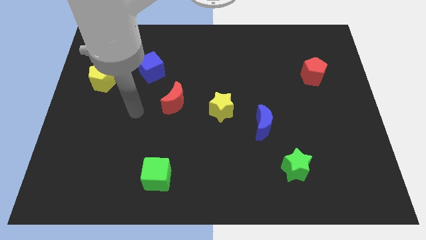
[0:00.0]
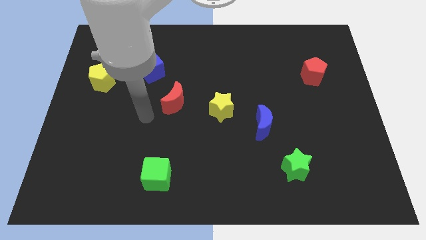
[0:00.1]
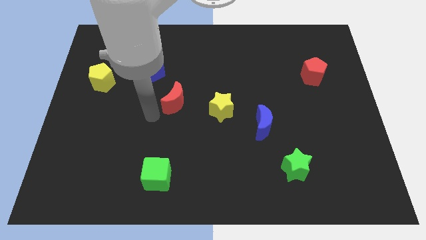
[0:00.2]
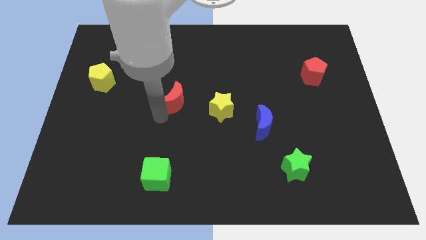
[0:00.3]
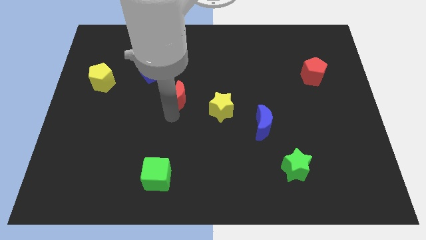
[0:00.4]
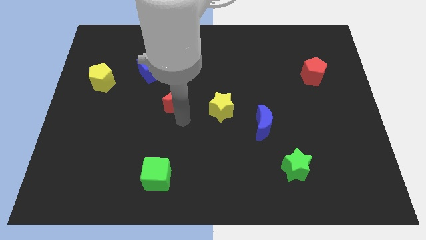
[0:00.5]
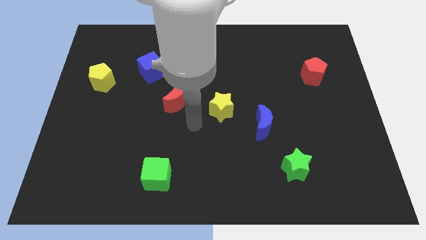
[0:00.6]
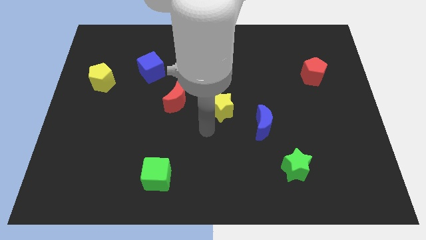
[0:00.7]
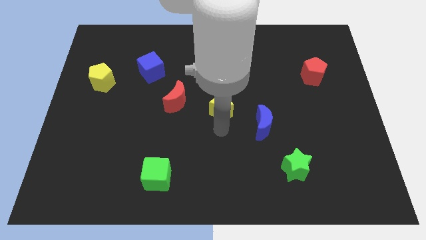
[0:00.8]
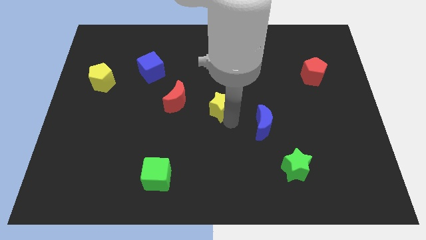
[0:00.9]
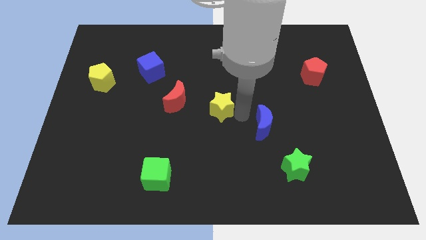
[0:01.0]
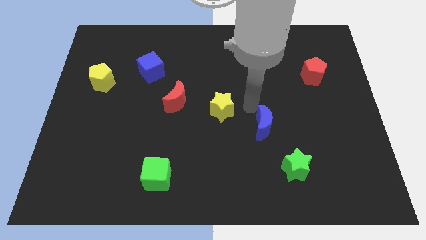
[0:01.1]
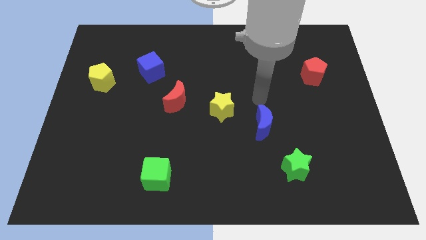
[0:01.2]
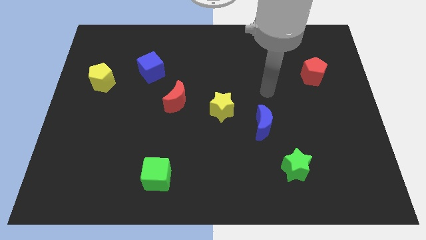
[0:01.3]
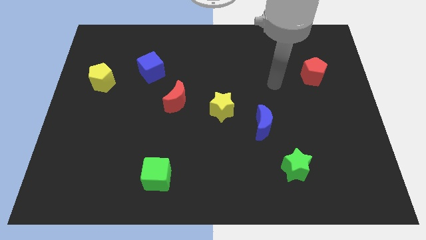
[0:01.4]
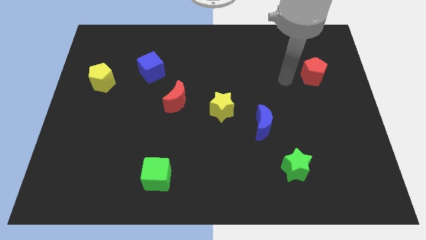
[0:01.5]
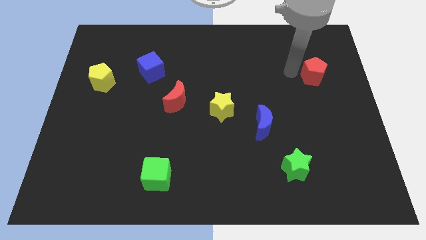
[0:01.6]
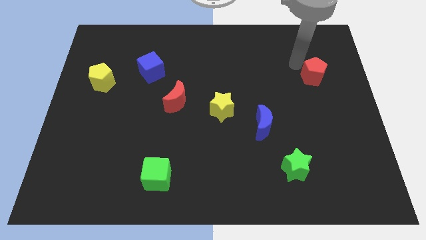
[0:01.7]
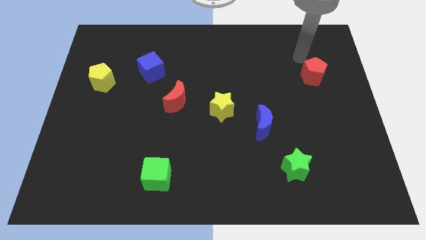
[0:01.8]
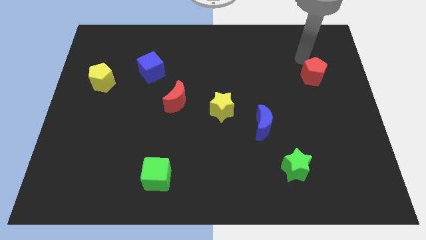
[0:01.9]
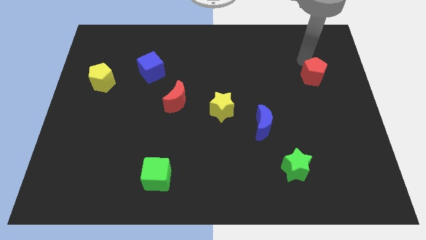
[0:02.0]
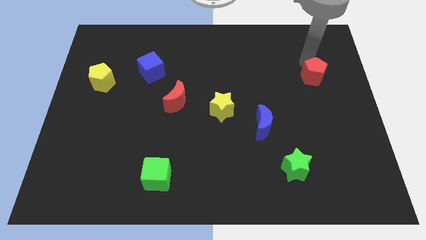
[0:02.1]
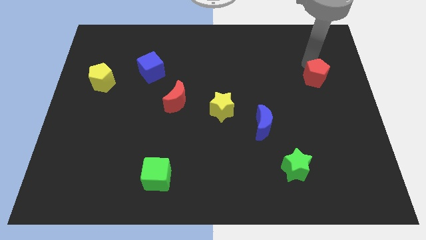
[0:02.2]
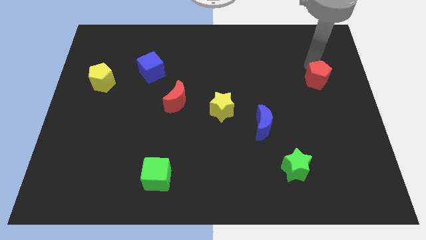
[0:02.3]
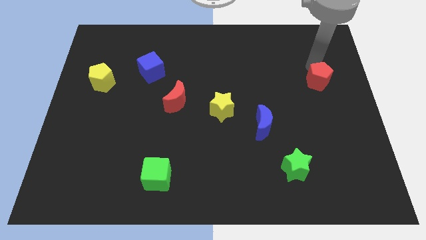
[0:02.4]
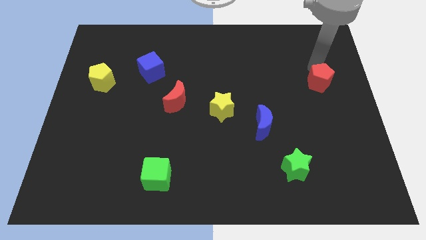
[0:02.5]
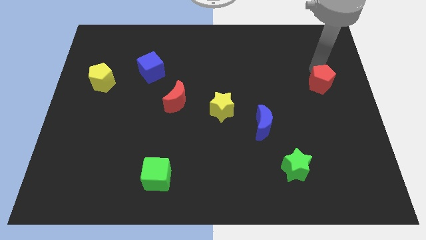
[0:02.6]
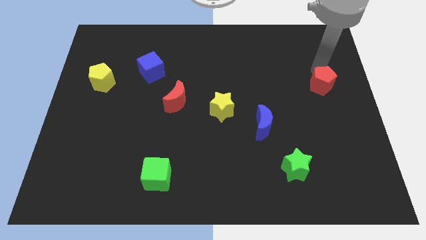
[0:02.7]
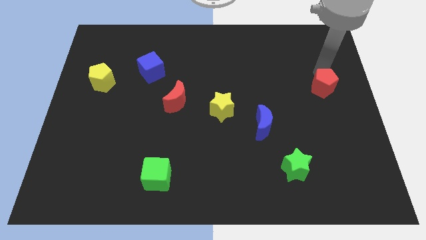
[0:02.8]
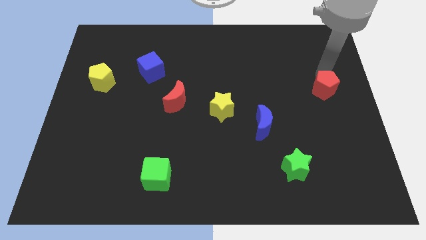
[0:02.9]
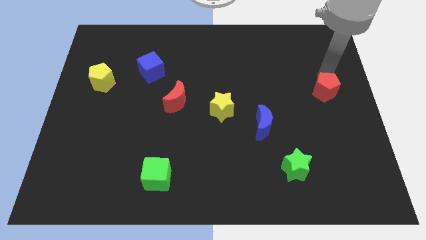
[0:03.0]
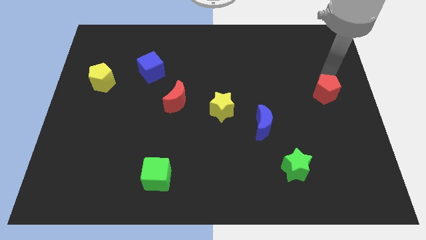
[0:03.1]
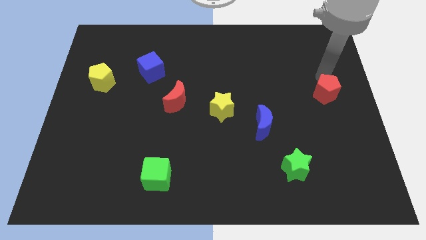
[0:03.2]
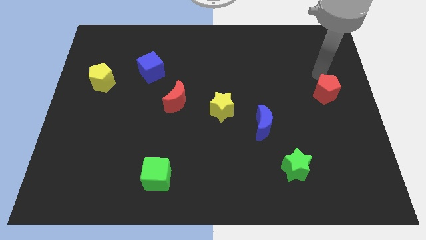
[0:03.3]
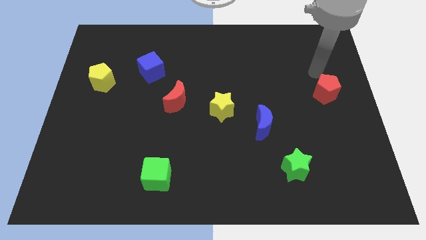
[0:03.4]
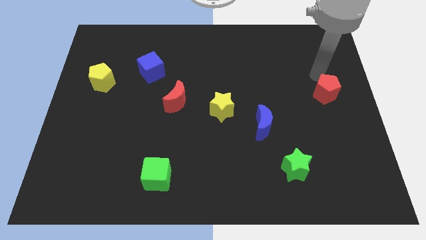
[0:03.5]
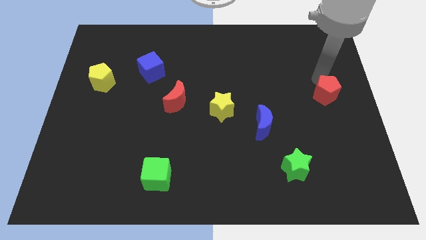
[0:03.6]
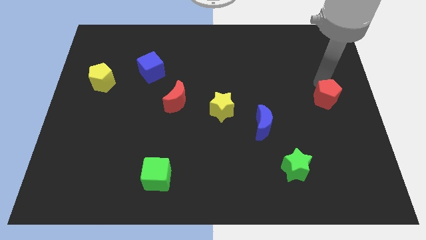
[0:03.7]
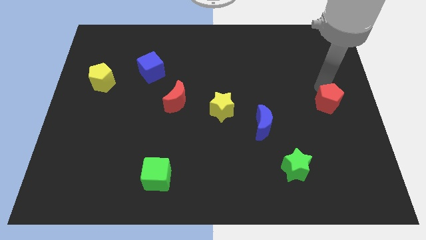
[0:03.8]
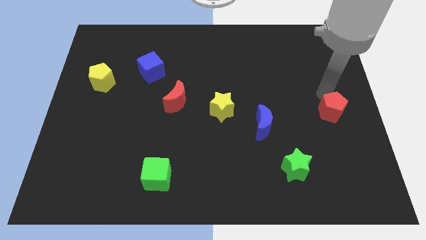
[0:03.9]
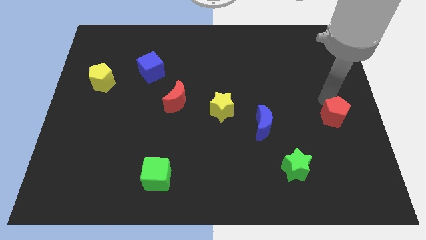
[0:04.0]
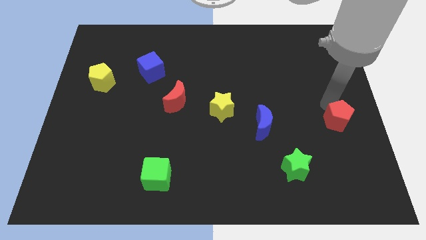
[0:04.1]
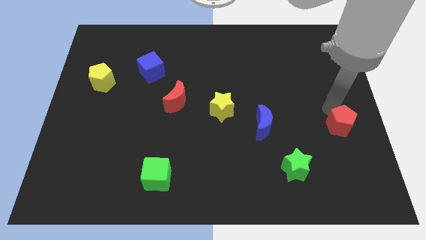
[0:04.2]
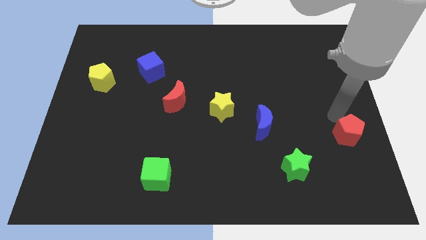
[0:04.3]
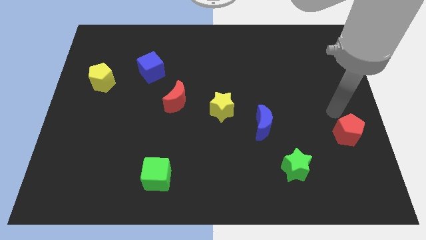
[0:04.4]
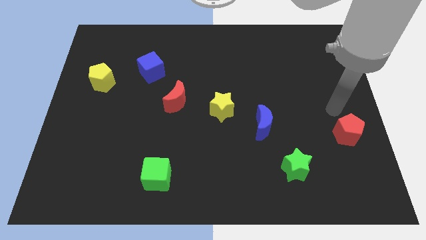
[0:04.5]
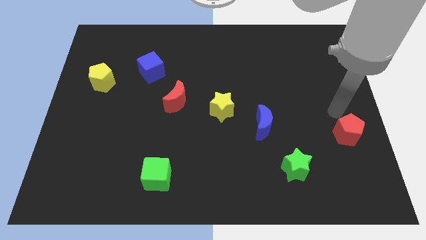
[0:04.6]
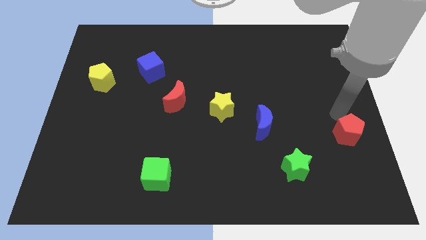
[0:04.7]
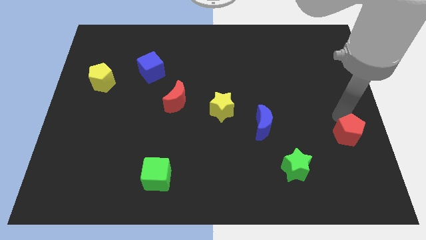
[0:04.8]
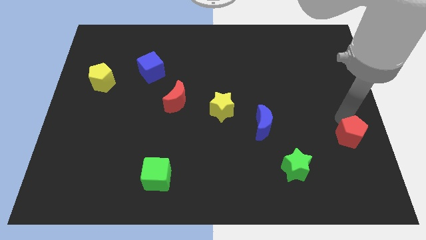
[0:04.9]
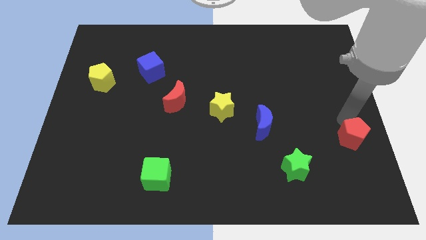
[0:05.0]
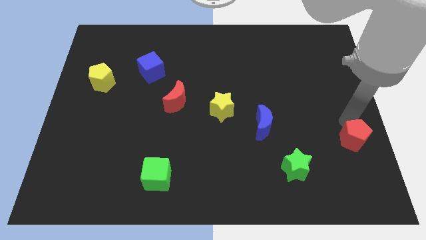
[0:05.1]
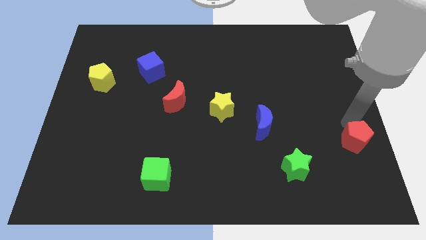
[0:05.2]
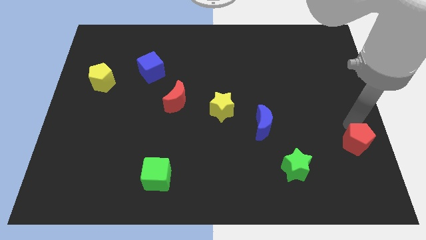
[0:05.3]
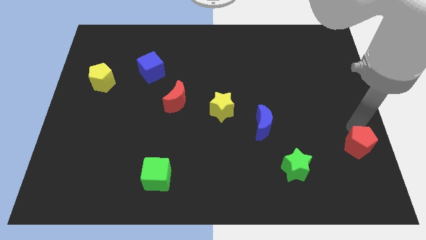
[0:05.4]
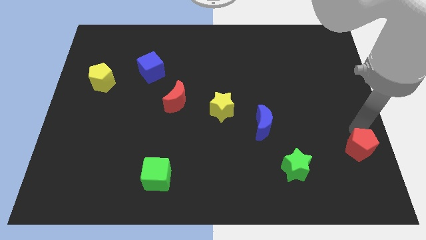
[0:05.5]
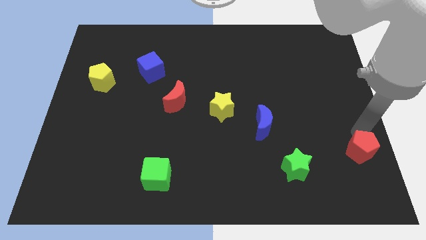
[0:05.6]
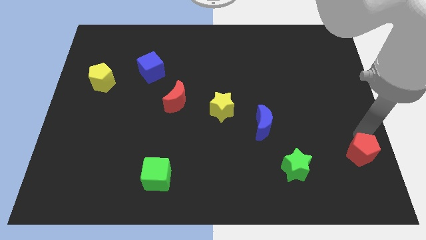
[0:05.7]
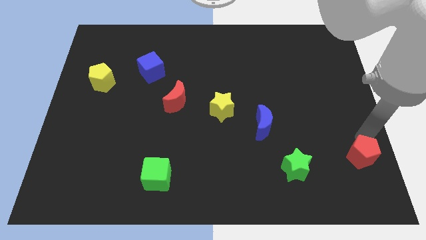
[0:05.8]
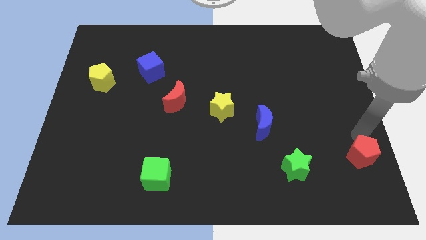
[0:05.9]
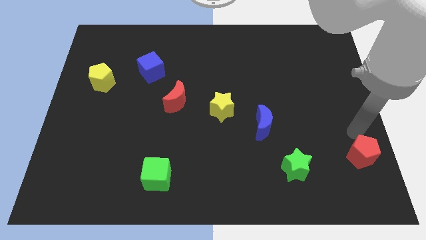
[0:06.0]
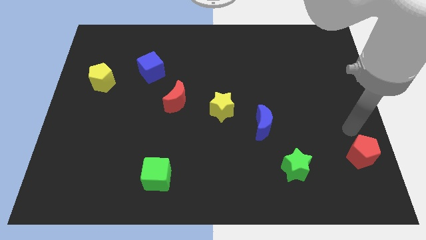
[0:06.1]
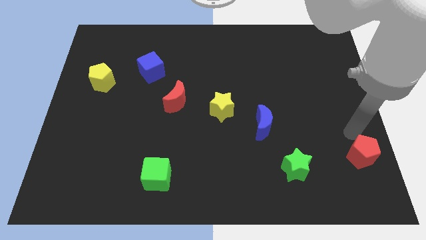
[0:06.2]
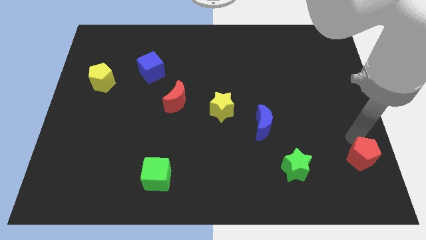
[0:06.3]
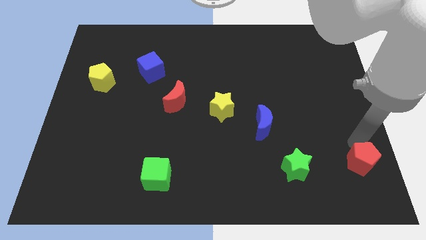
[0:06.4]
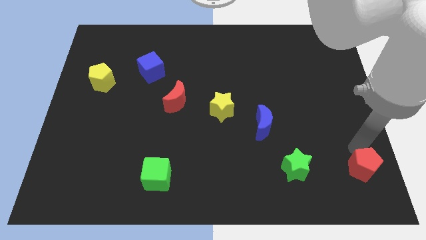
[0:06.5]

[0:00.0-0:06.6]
slide the red pentagon to the bottom right
